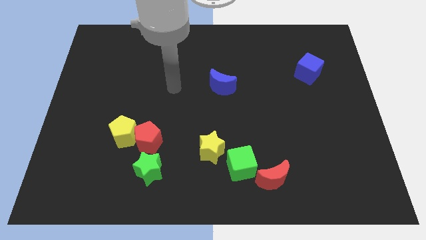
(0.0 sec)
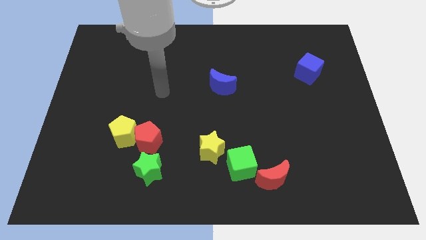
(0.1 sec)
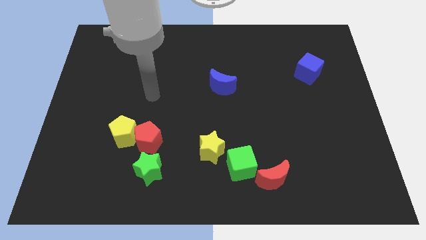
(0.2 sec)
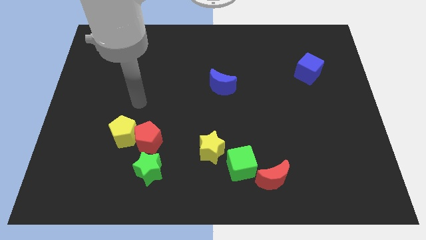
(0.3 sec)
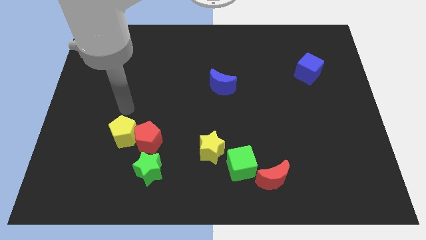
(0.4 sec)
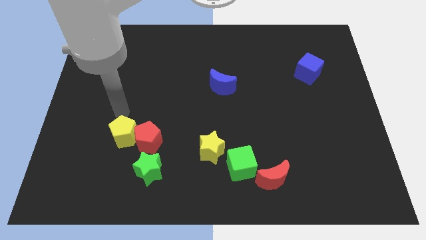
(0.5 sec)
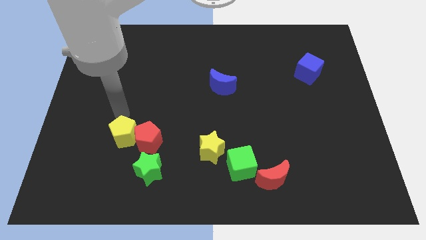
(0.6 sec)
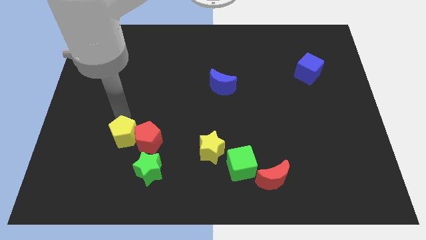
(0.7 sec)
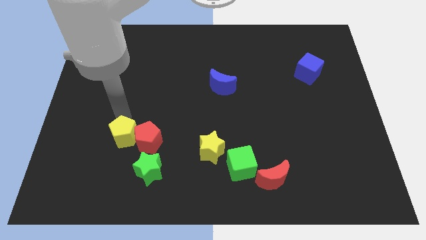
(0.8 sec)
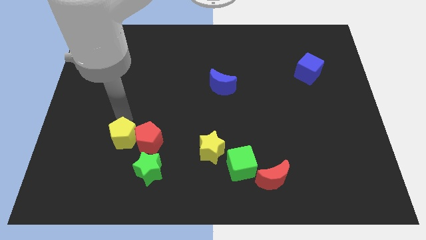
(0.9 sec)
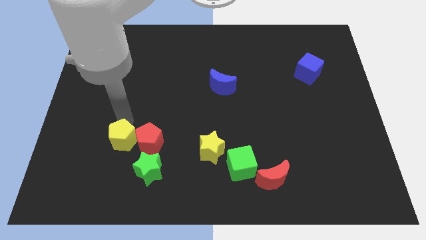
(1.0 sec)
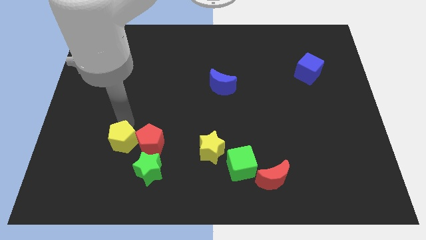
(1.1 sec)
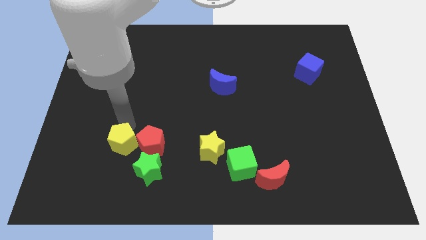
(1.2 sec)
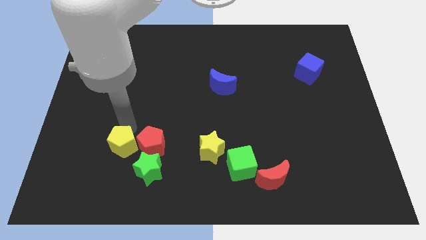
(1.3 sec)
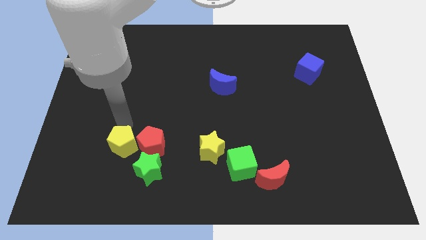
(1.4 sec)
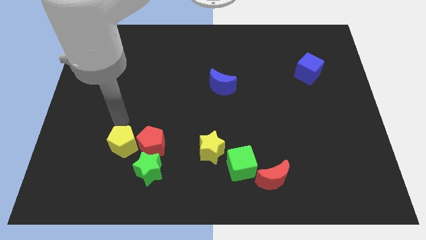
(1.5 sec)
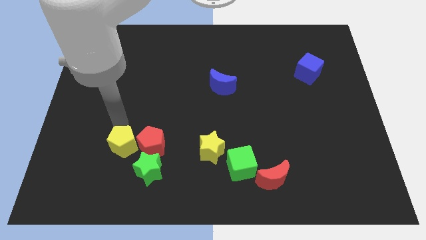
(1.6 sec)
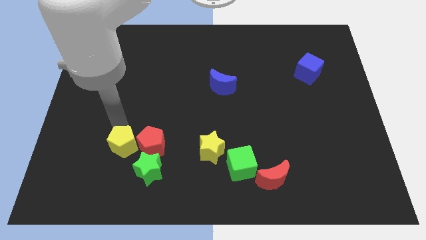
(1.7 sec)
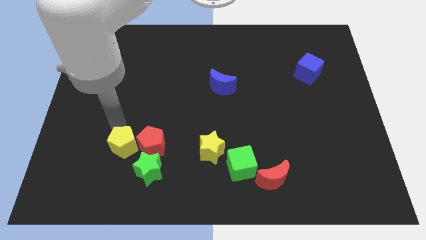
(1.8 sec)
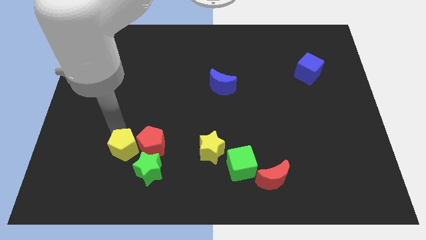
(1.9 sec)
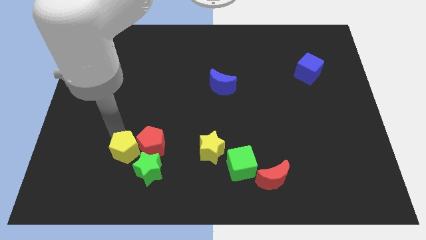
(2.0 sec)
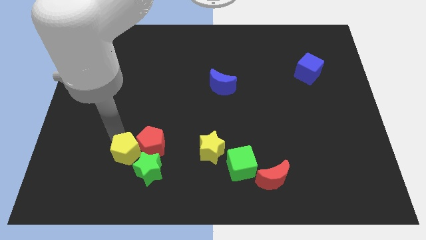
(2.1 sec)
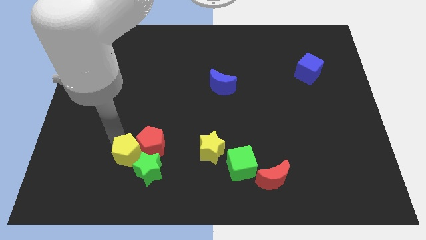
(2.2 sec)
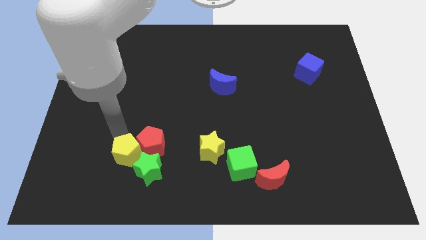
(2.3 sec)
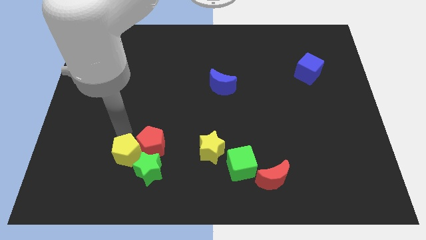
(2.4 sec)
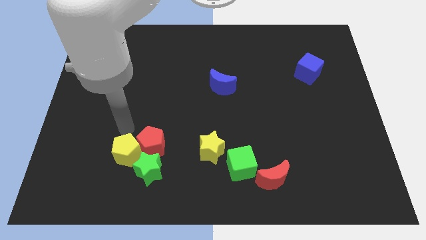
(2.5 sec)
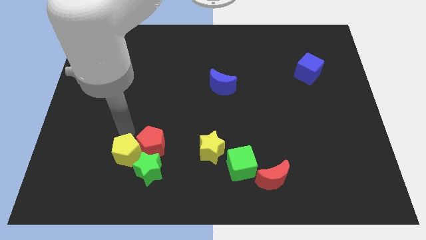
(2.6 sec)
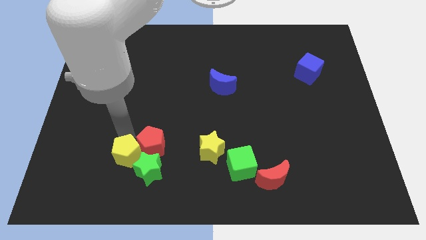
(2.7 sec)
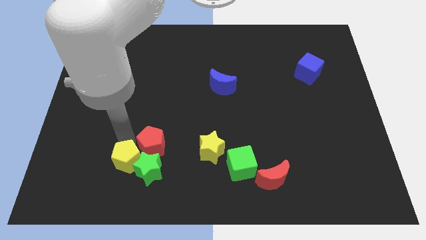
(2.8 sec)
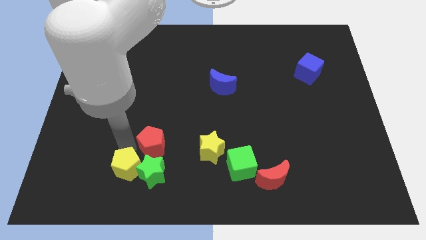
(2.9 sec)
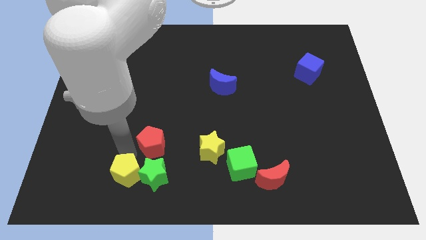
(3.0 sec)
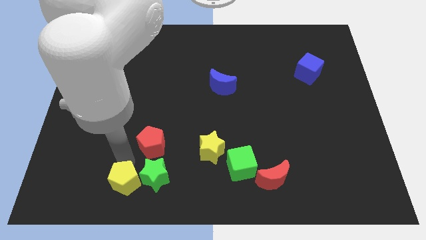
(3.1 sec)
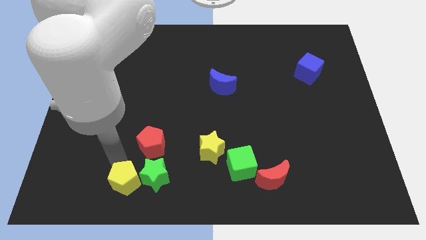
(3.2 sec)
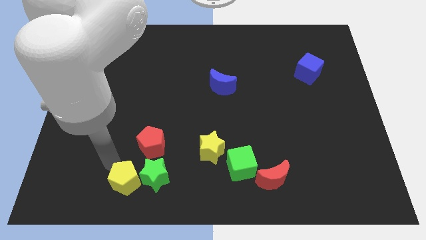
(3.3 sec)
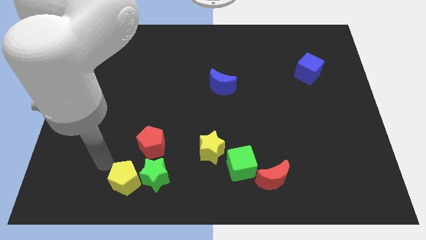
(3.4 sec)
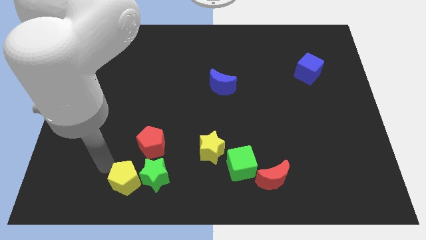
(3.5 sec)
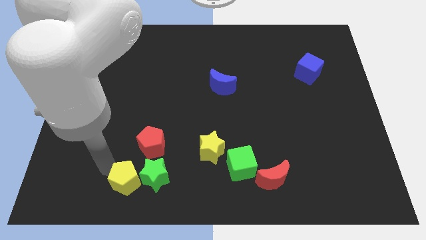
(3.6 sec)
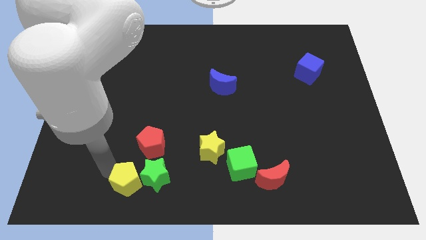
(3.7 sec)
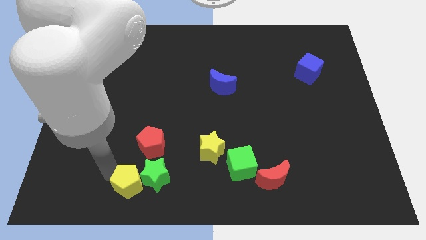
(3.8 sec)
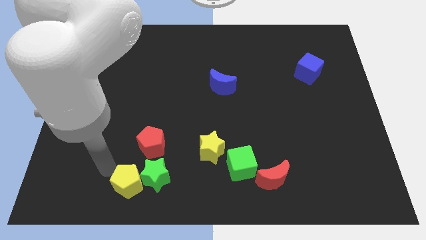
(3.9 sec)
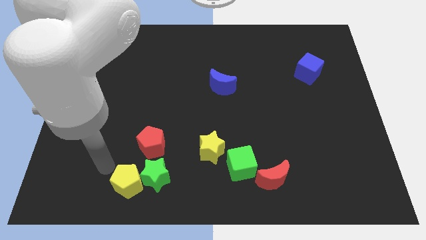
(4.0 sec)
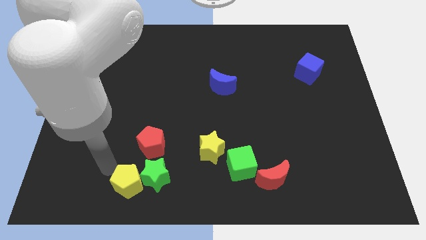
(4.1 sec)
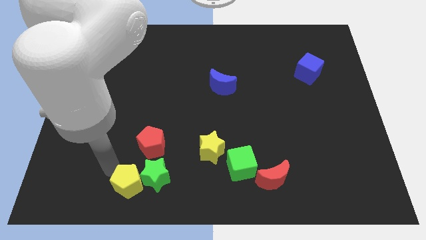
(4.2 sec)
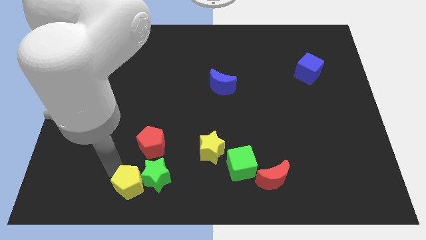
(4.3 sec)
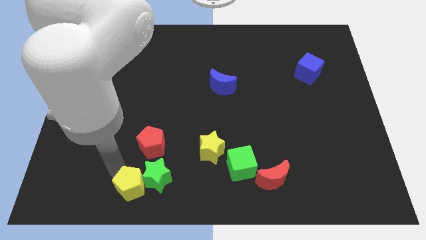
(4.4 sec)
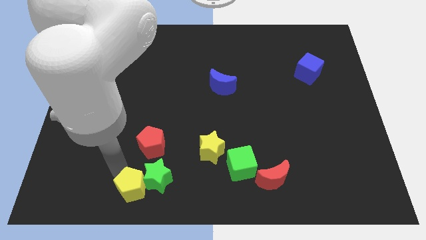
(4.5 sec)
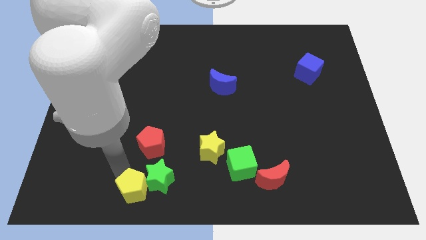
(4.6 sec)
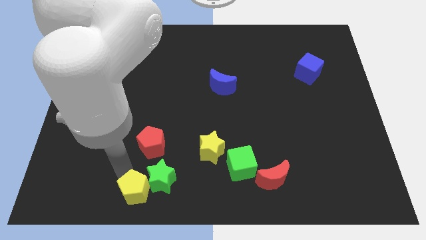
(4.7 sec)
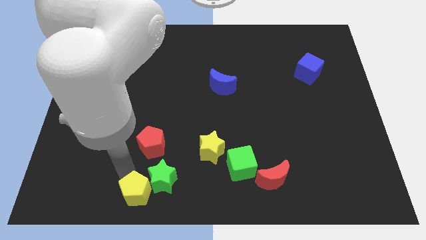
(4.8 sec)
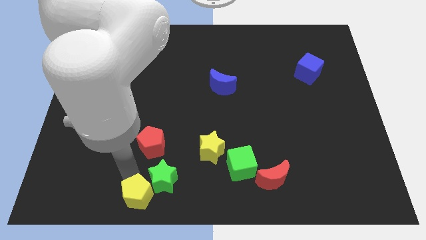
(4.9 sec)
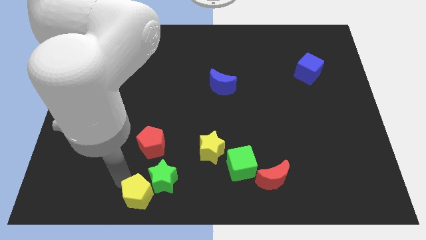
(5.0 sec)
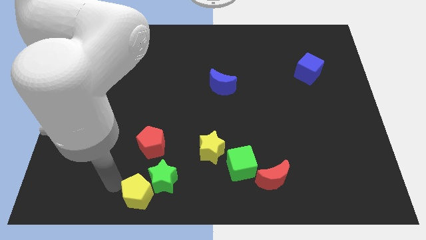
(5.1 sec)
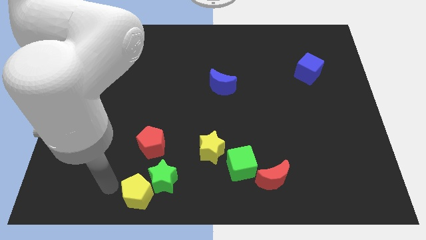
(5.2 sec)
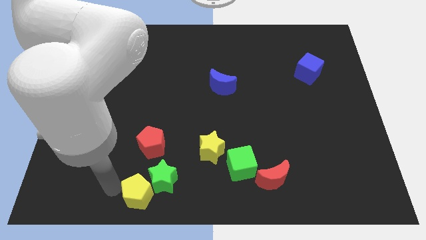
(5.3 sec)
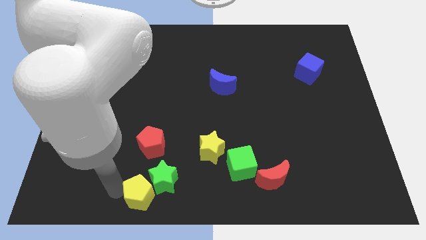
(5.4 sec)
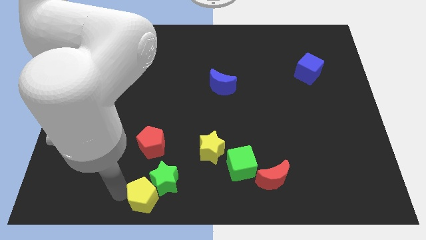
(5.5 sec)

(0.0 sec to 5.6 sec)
push the yellow pentagon to the bottom side
